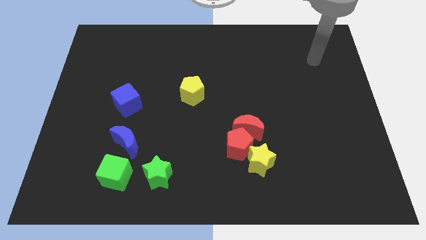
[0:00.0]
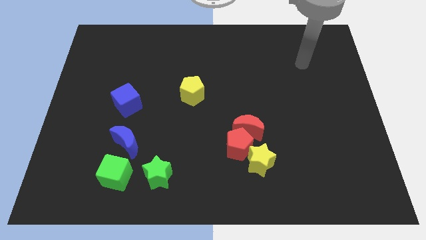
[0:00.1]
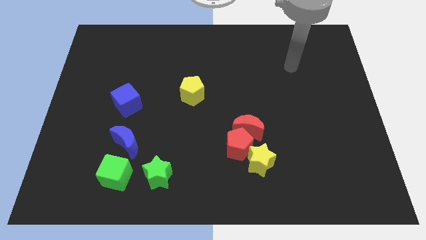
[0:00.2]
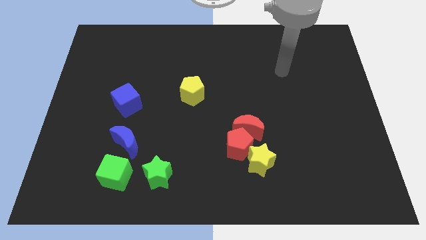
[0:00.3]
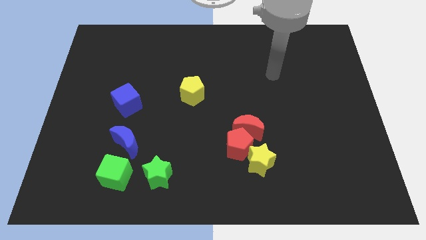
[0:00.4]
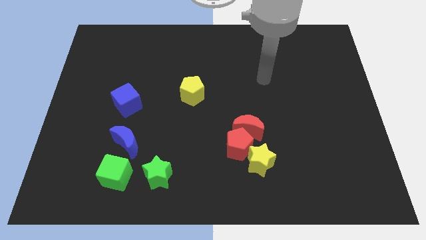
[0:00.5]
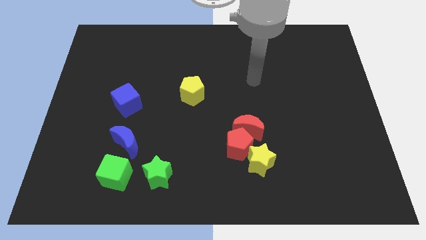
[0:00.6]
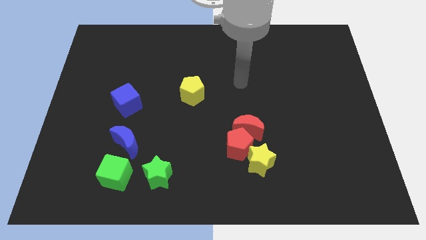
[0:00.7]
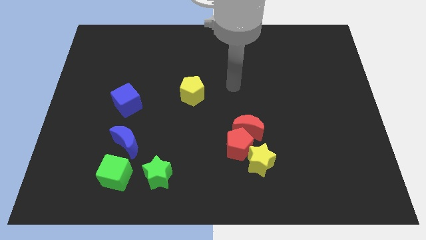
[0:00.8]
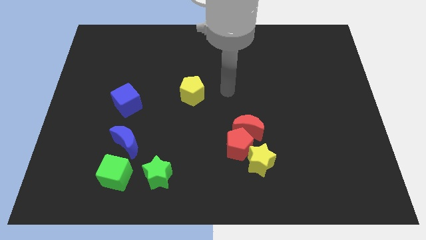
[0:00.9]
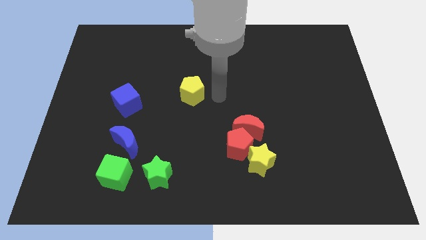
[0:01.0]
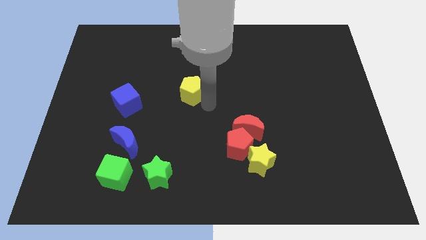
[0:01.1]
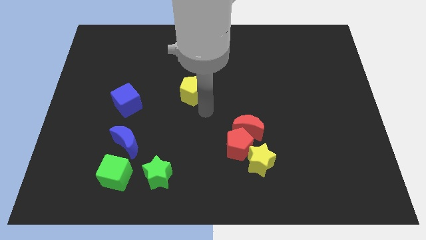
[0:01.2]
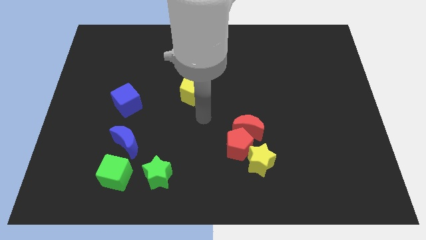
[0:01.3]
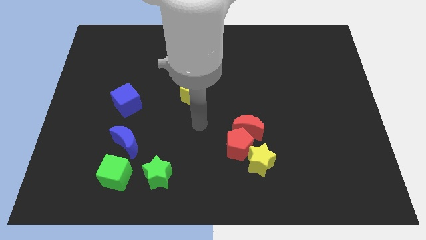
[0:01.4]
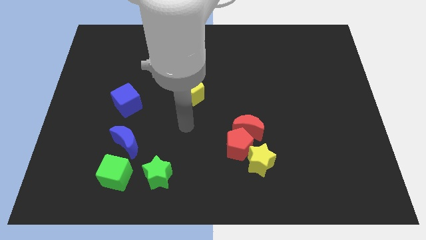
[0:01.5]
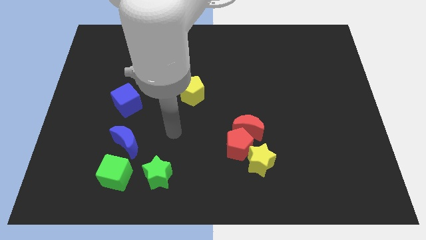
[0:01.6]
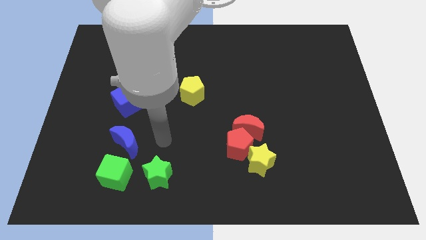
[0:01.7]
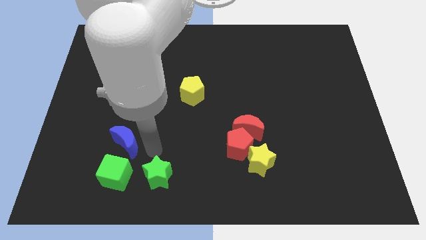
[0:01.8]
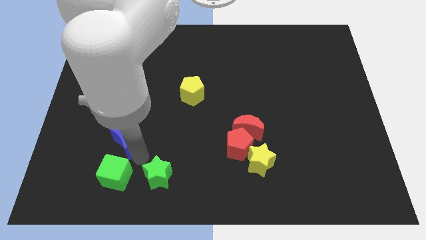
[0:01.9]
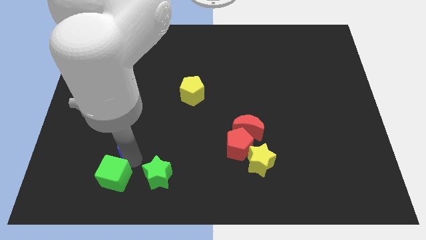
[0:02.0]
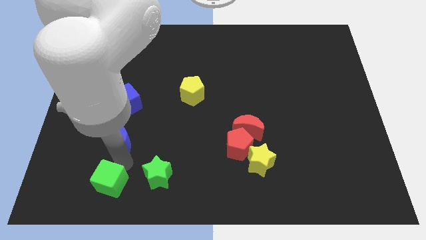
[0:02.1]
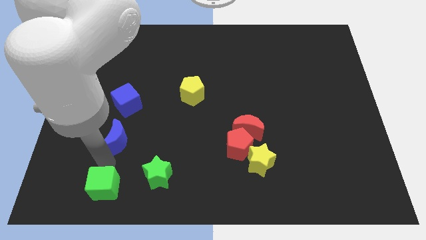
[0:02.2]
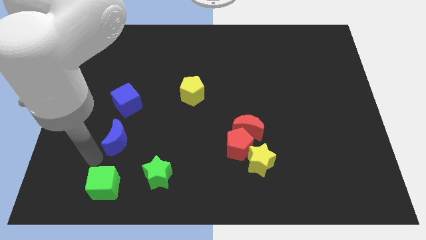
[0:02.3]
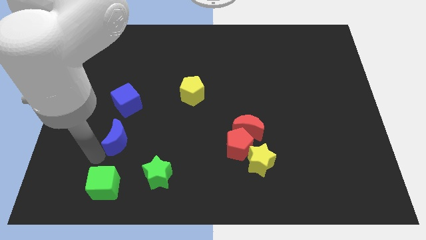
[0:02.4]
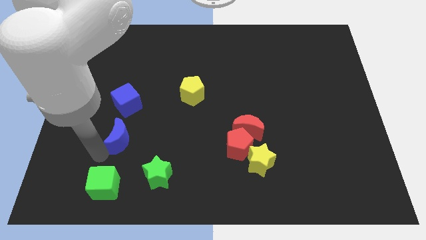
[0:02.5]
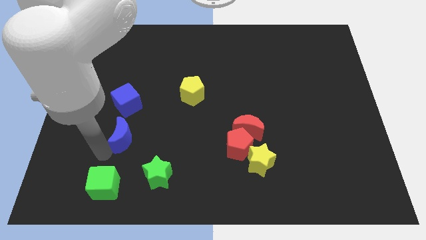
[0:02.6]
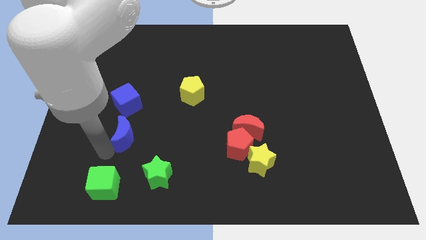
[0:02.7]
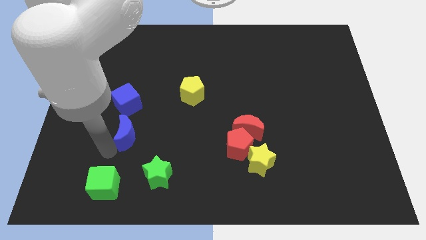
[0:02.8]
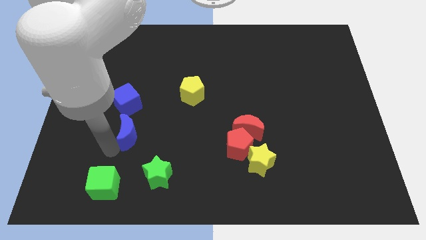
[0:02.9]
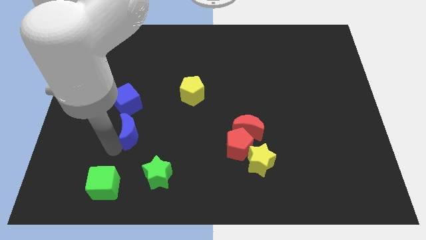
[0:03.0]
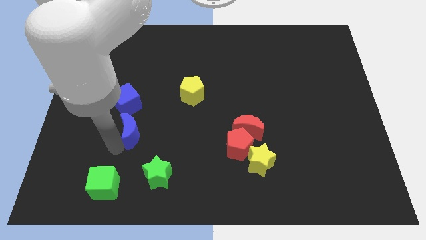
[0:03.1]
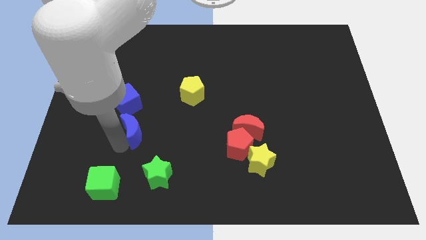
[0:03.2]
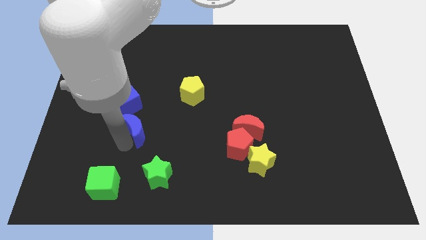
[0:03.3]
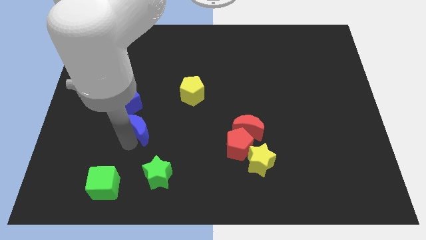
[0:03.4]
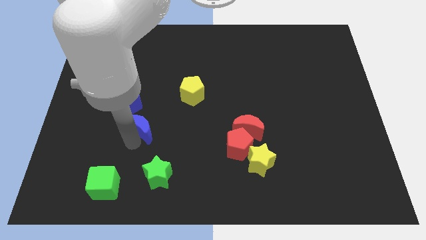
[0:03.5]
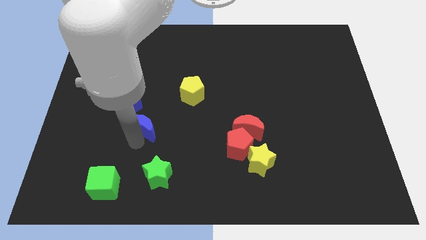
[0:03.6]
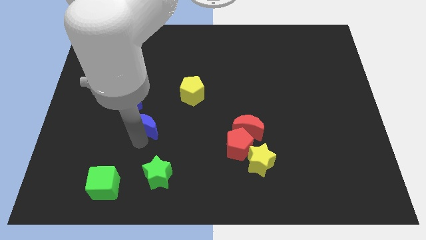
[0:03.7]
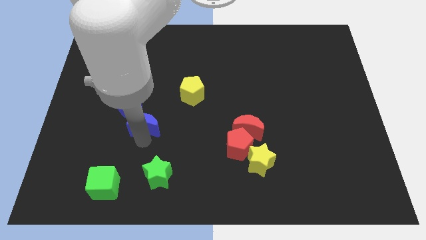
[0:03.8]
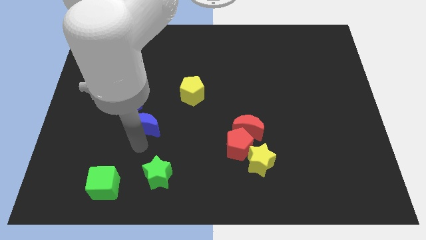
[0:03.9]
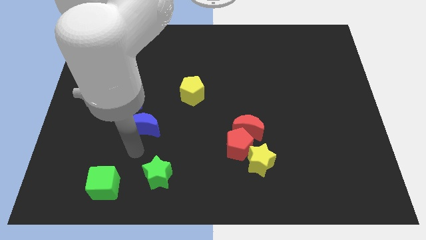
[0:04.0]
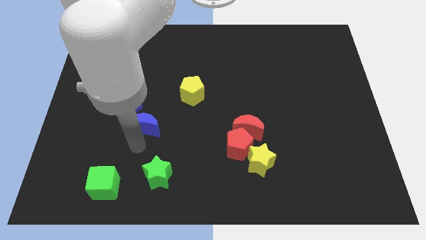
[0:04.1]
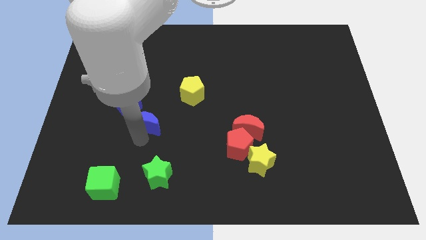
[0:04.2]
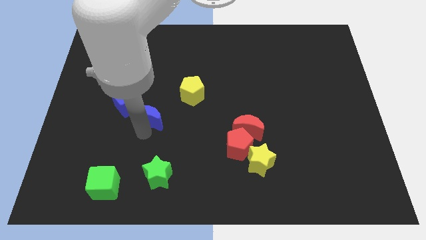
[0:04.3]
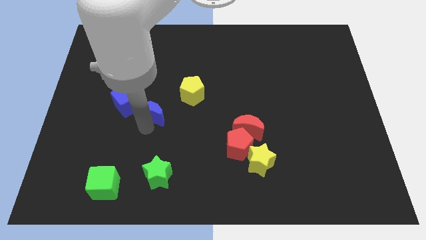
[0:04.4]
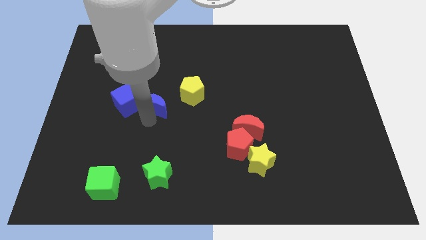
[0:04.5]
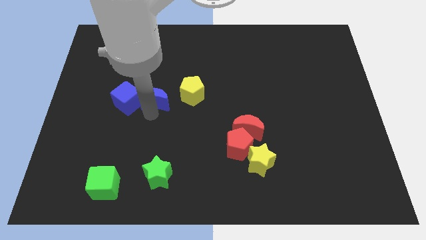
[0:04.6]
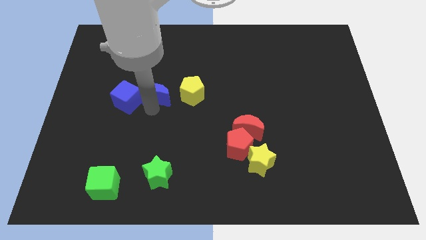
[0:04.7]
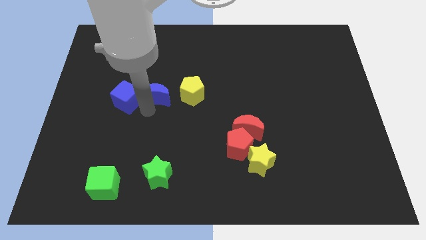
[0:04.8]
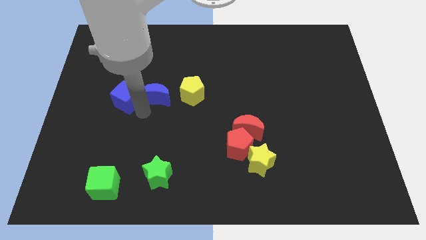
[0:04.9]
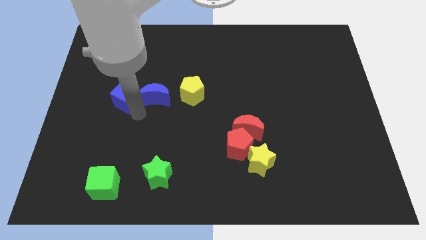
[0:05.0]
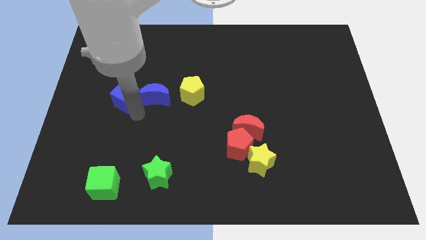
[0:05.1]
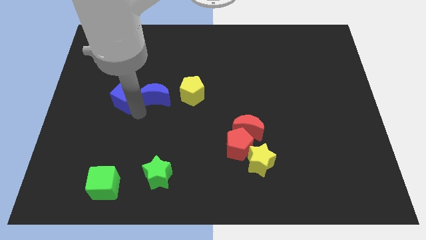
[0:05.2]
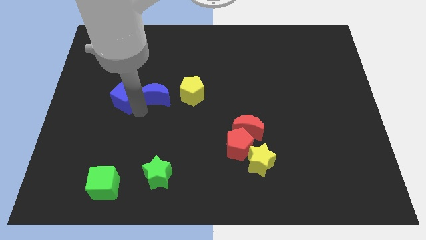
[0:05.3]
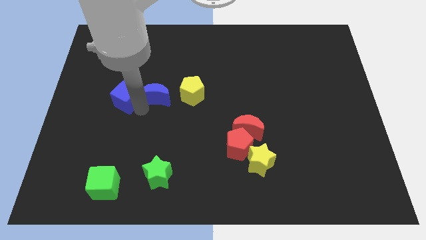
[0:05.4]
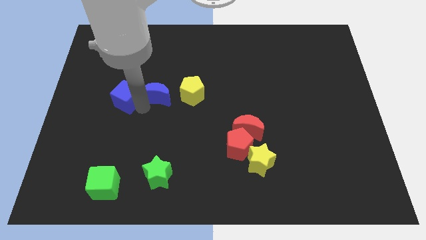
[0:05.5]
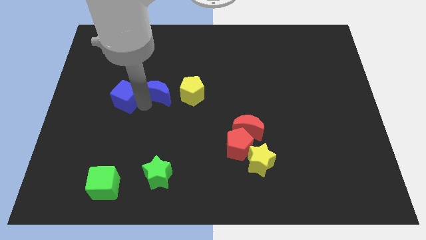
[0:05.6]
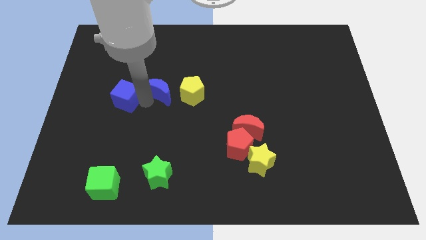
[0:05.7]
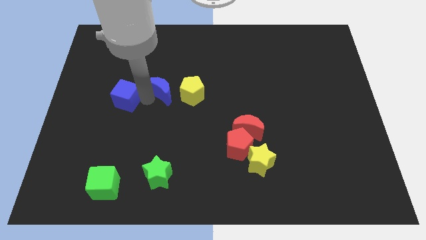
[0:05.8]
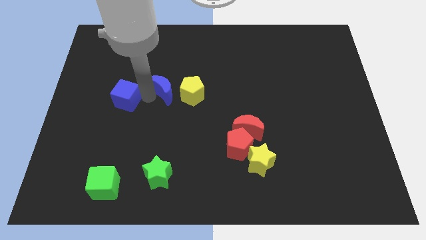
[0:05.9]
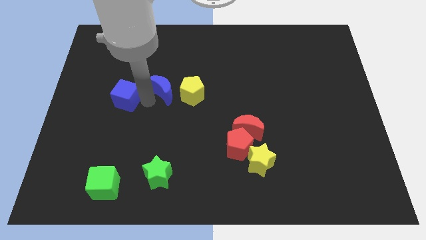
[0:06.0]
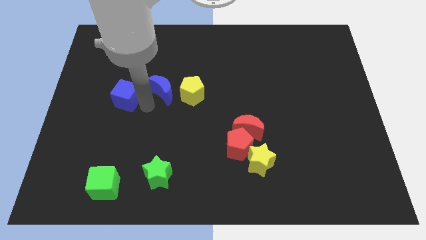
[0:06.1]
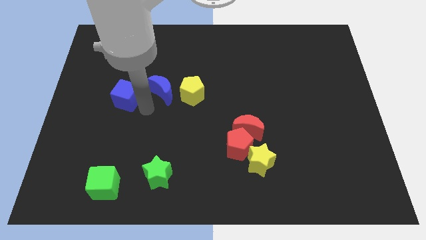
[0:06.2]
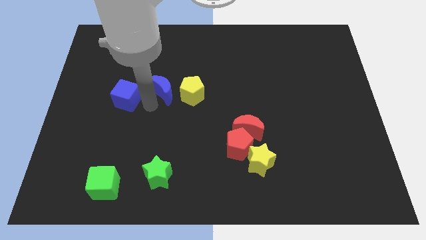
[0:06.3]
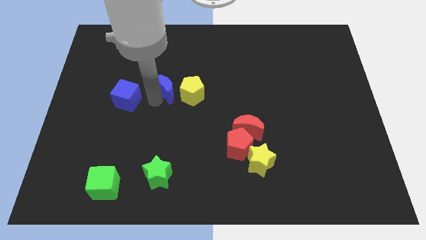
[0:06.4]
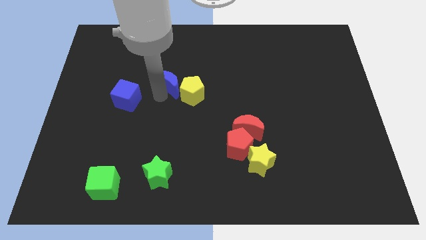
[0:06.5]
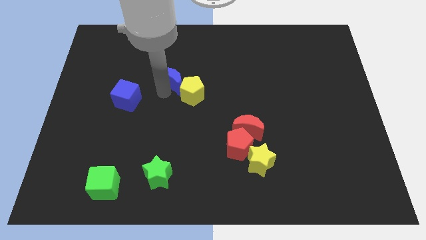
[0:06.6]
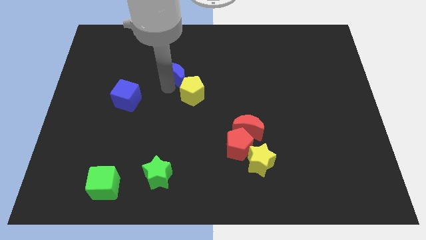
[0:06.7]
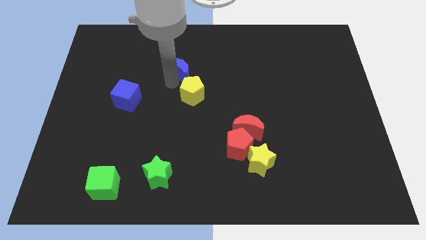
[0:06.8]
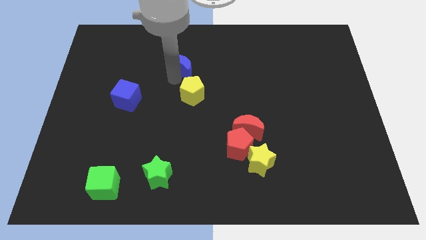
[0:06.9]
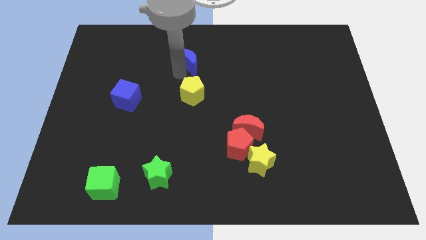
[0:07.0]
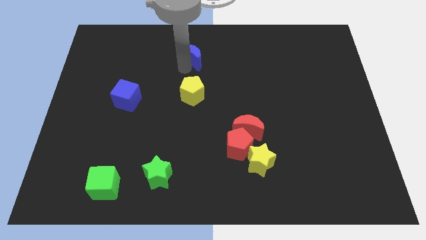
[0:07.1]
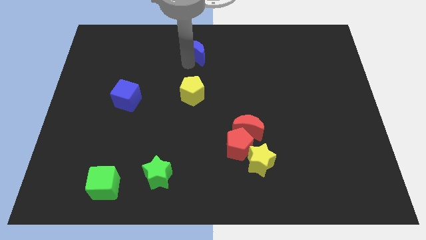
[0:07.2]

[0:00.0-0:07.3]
push the blue moon to the top
